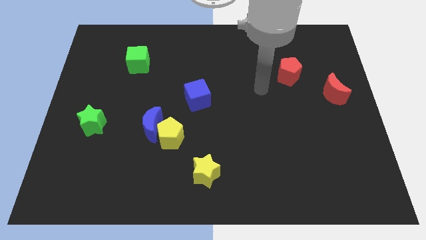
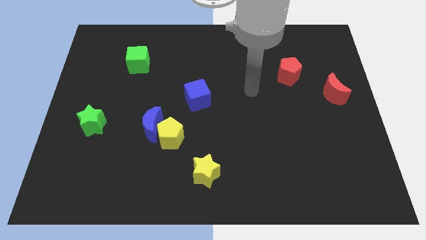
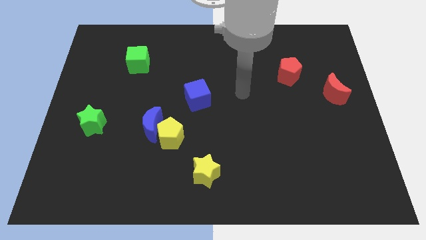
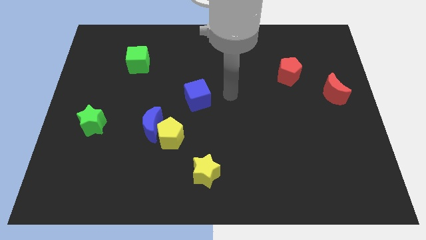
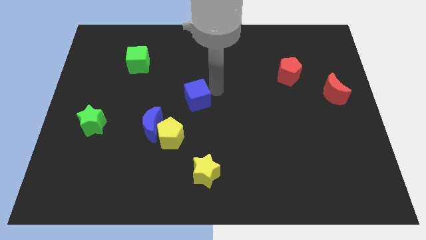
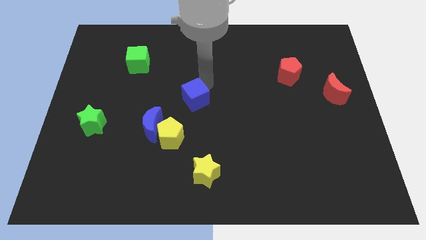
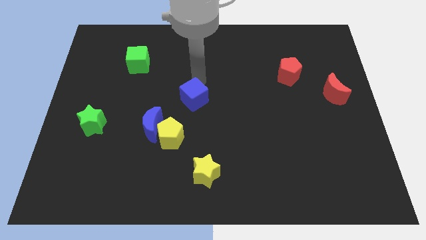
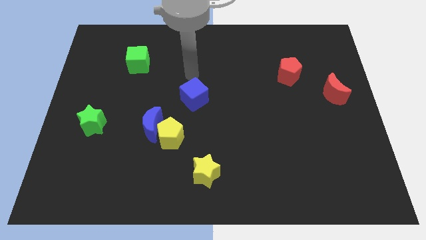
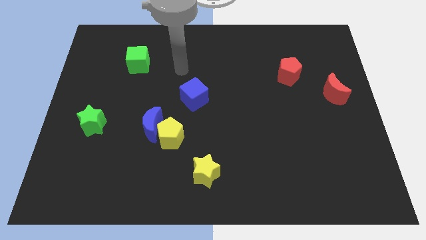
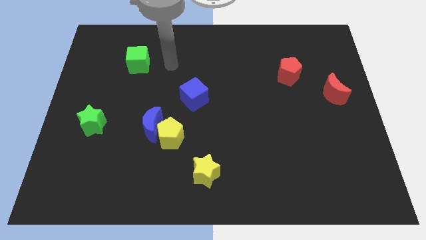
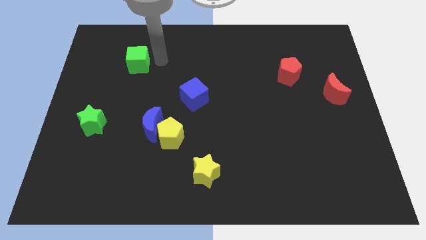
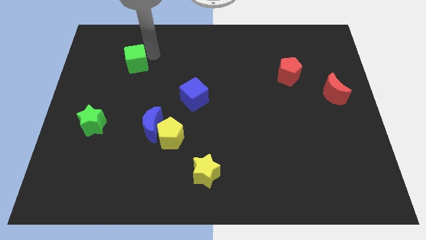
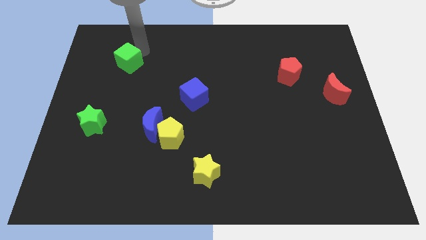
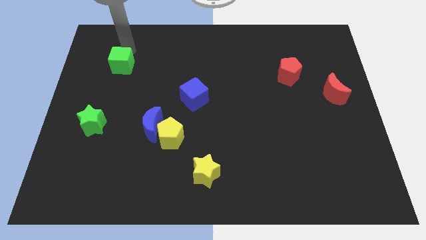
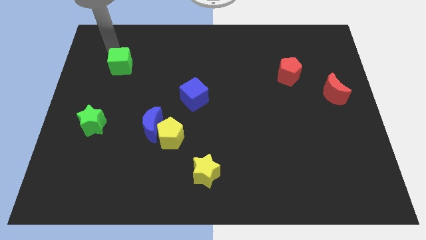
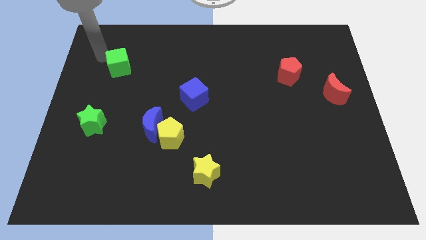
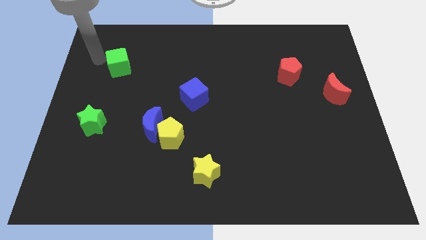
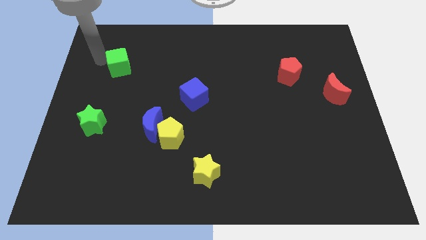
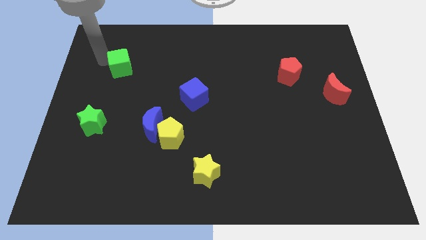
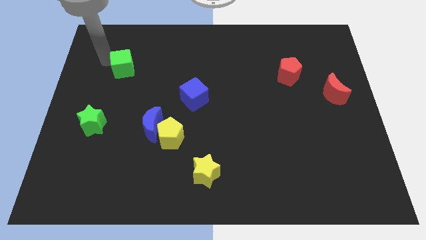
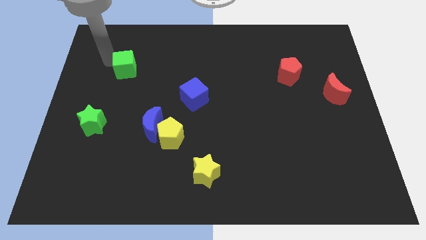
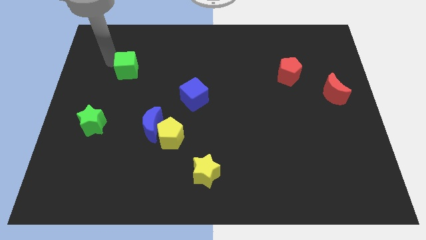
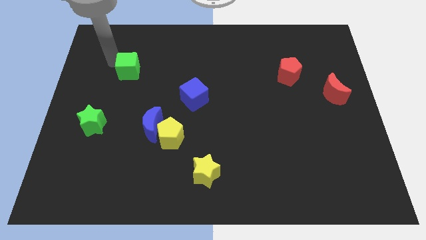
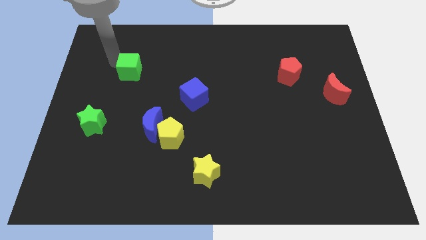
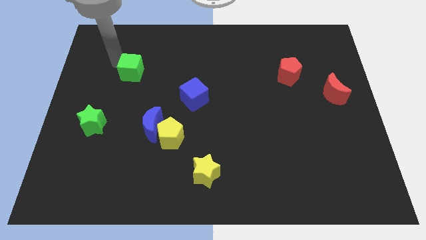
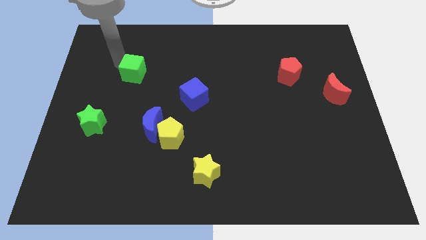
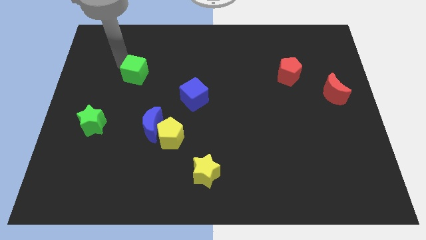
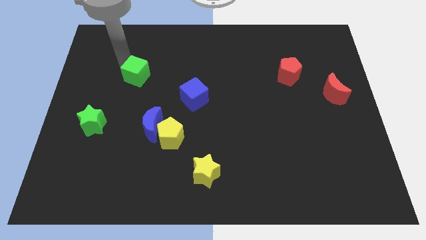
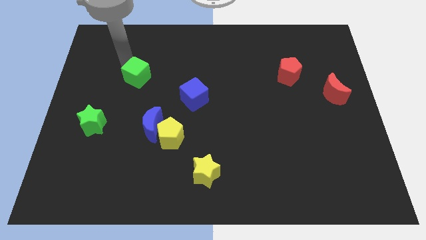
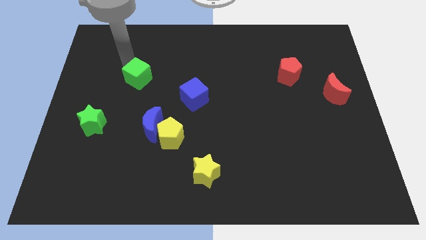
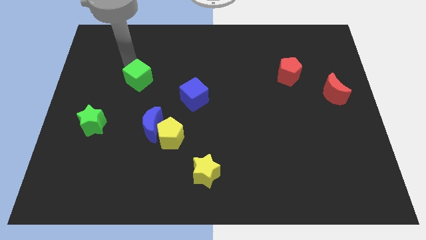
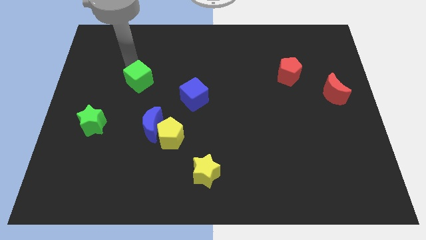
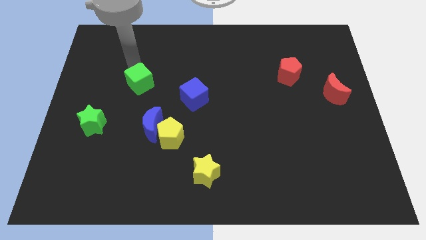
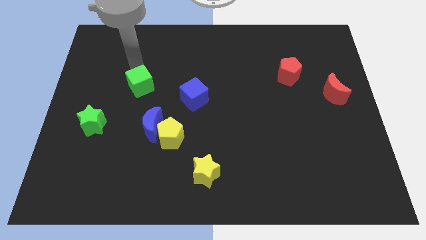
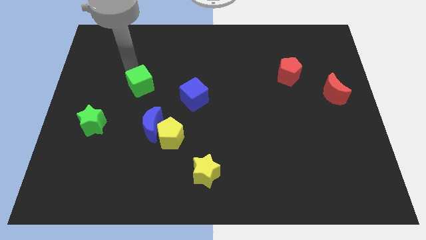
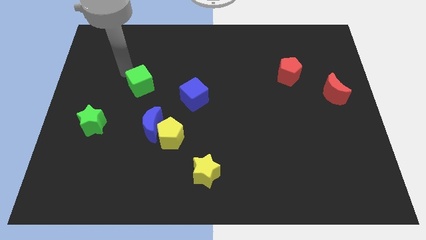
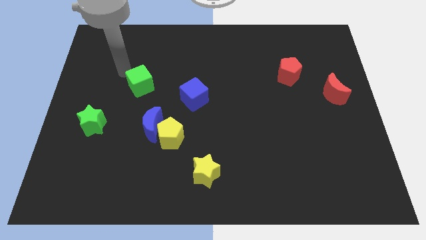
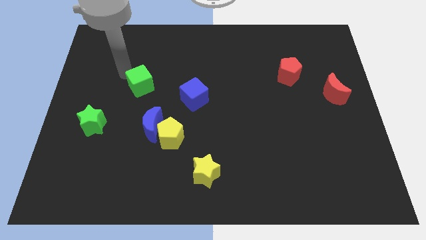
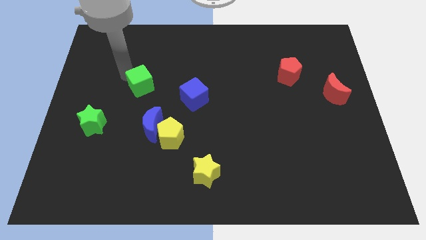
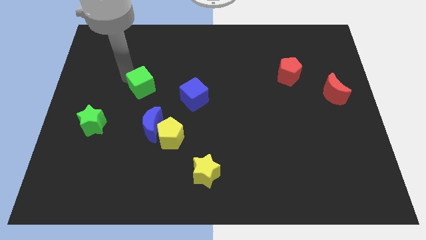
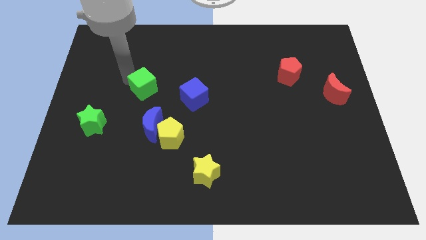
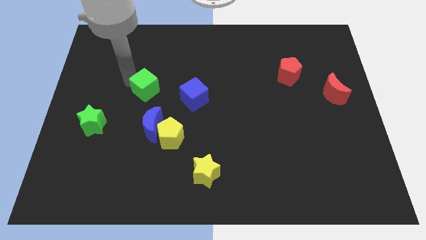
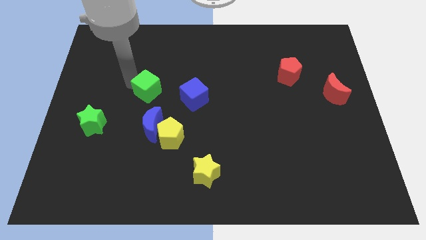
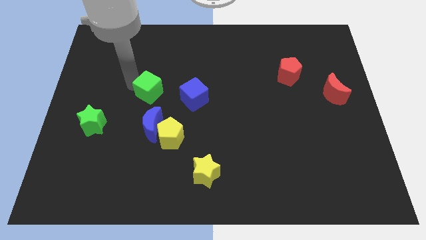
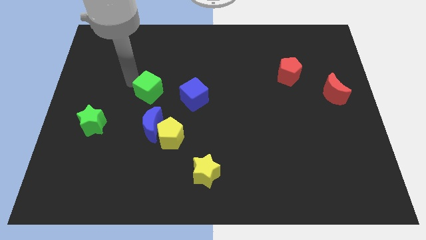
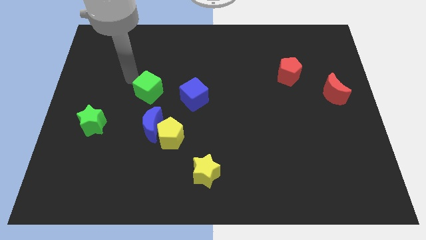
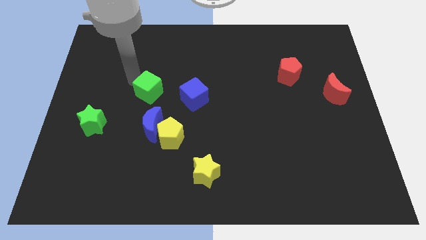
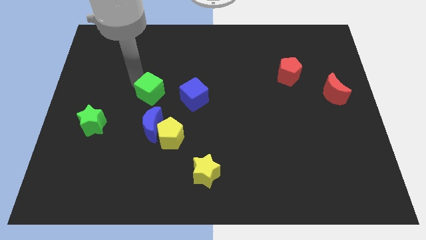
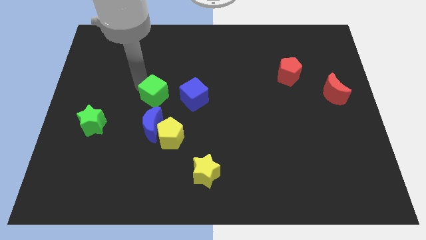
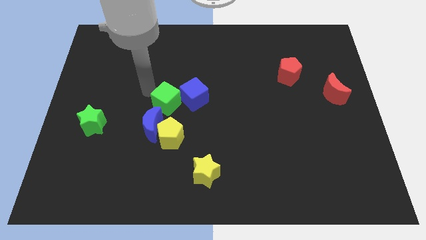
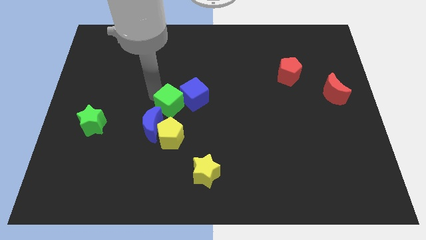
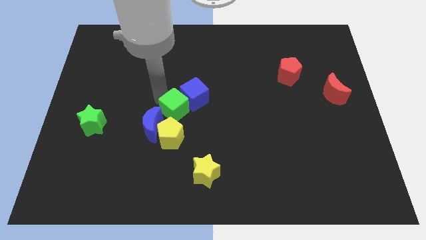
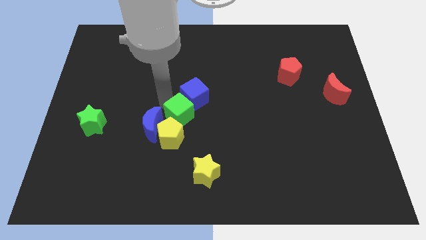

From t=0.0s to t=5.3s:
slide the green cube to the top right side of the yellow pentagon

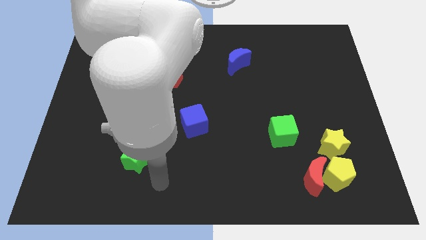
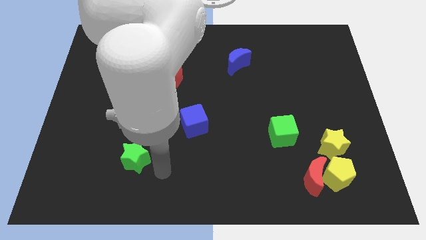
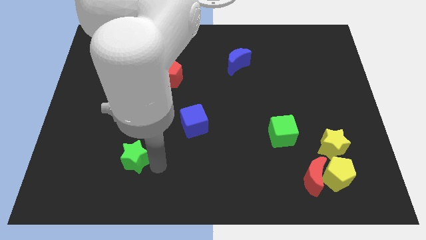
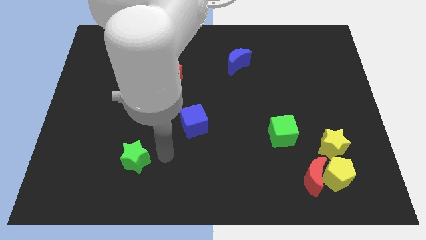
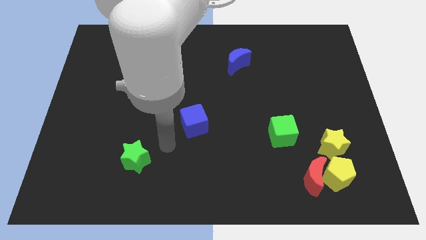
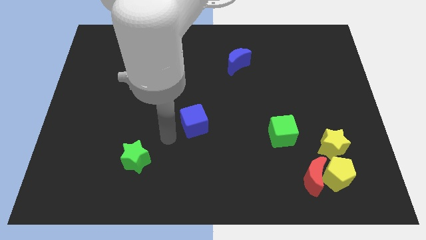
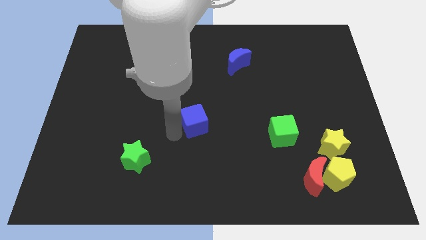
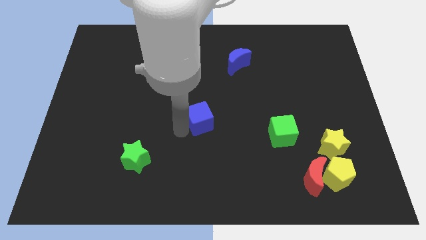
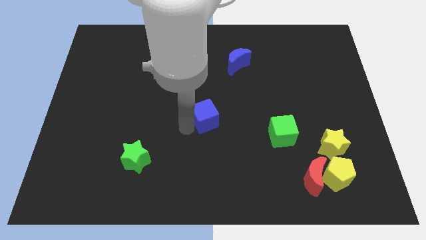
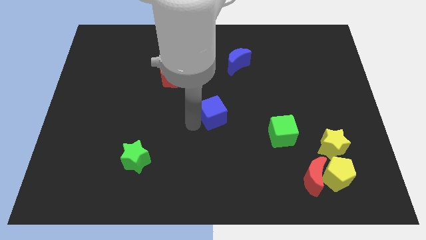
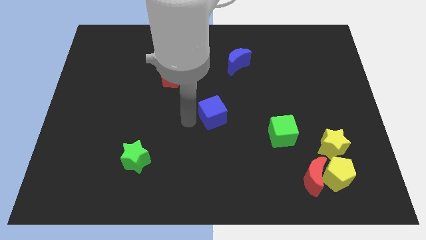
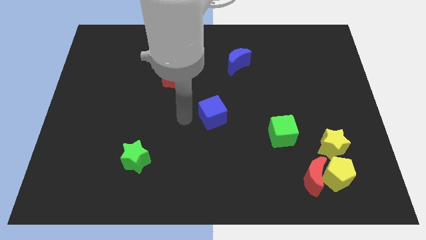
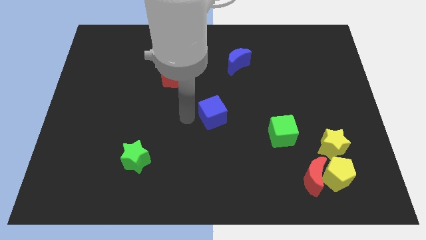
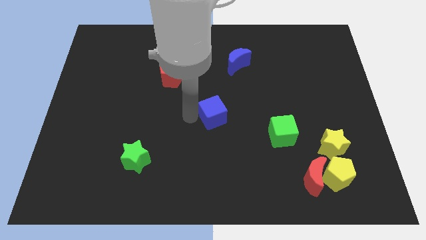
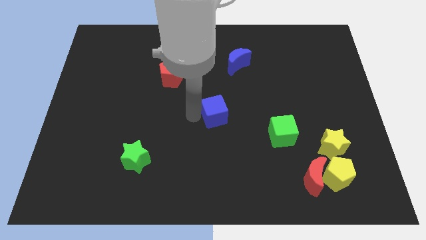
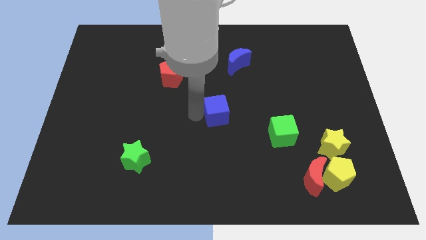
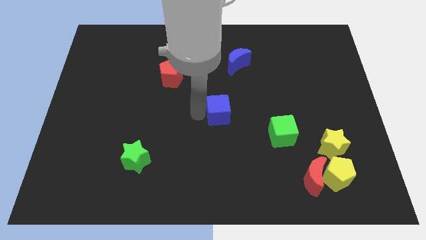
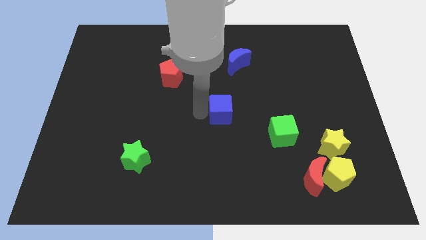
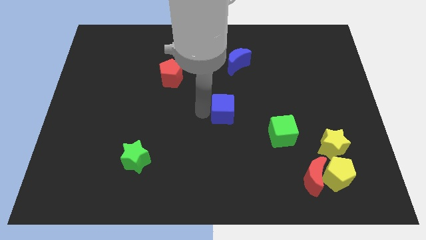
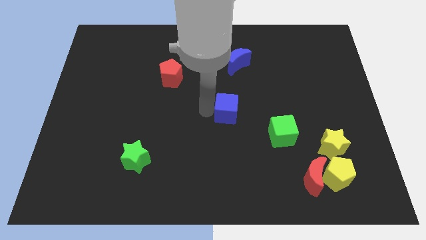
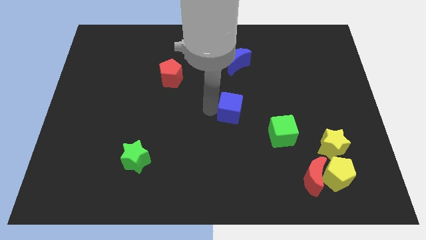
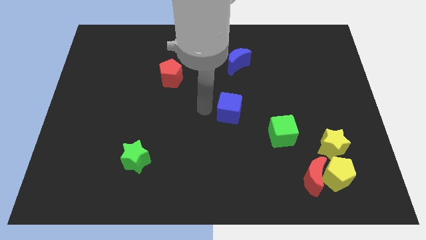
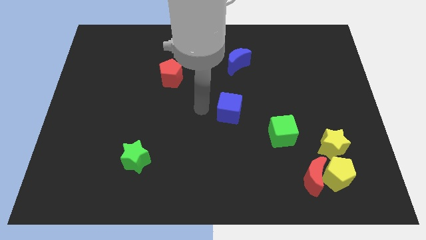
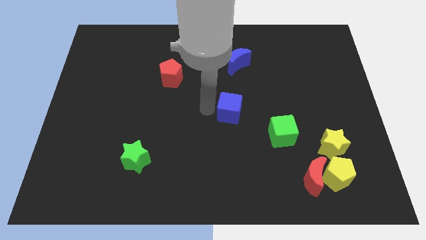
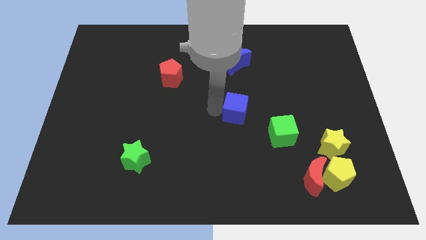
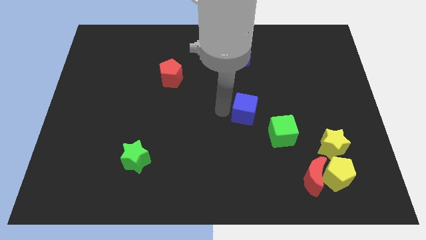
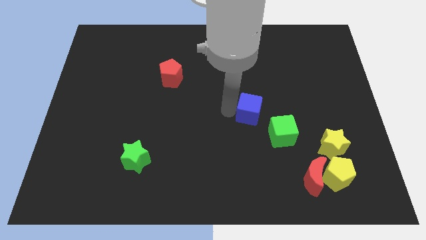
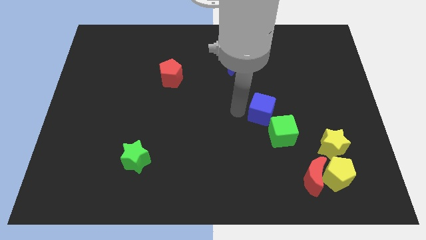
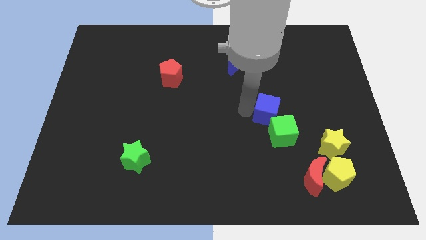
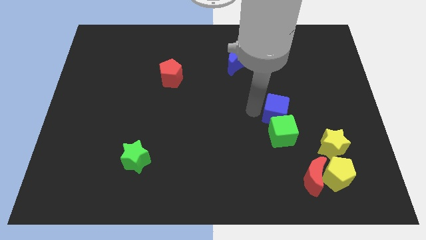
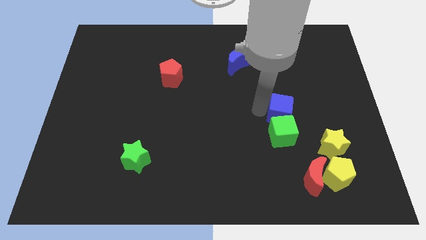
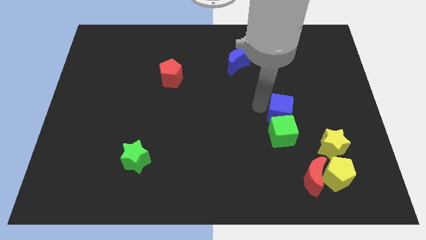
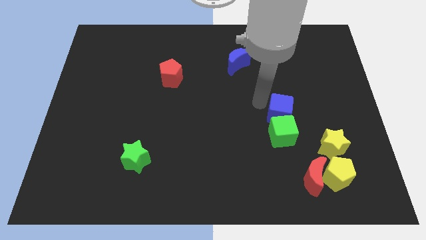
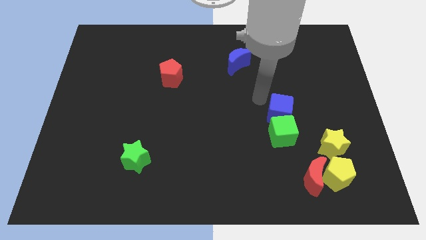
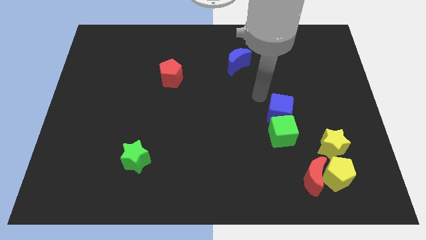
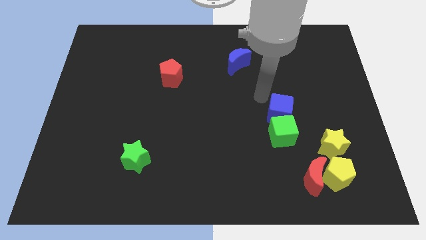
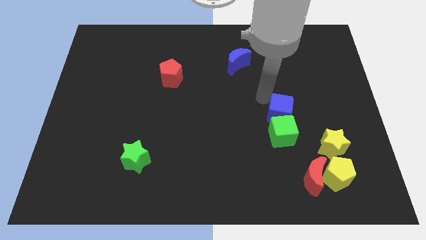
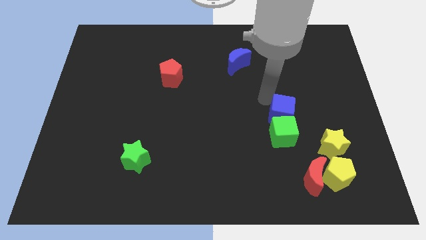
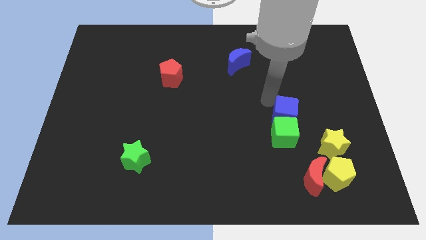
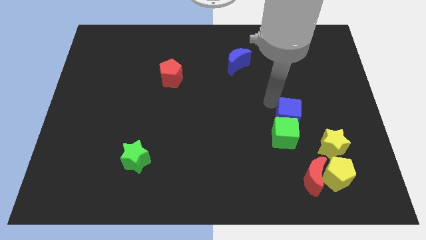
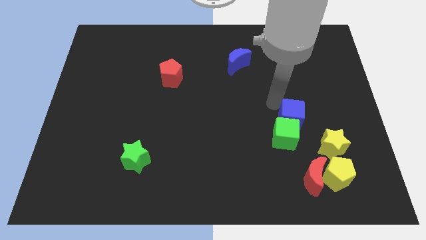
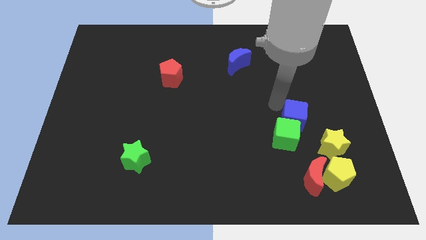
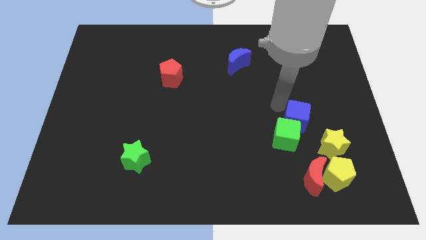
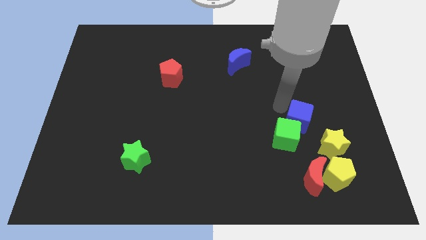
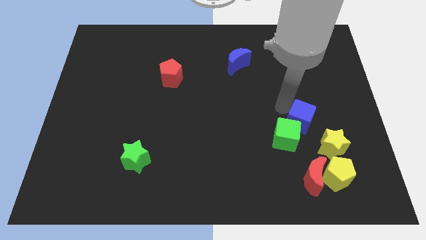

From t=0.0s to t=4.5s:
slide the blue cube to the right side of the green cube
